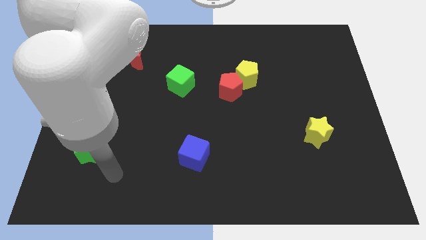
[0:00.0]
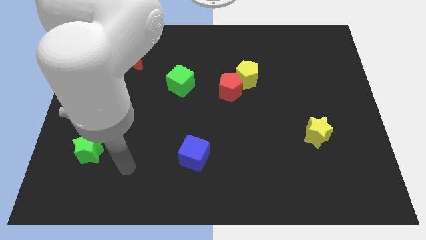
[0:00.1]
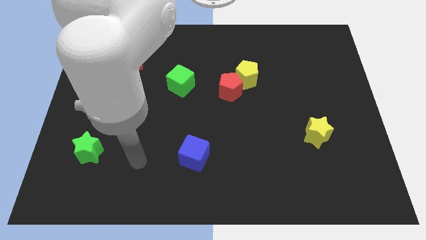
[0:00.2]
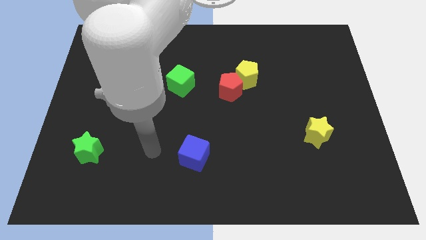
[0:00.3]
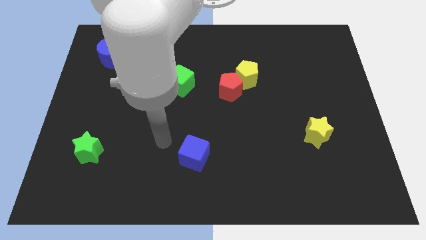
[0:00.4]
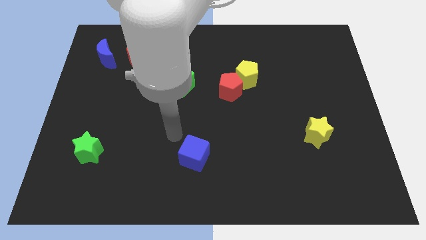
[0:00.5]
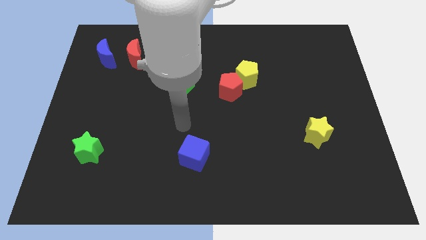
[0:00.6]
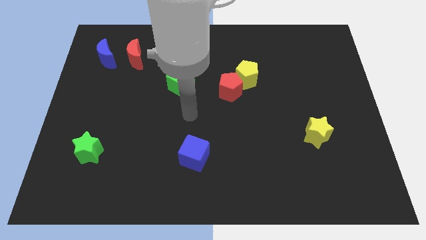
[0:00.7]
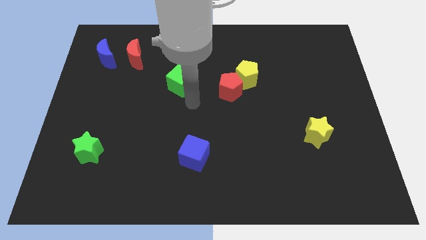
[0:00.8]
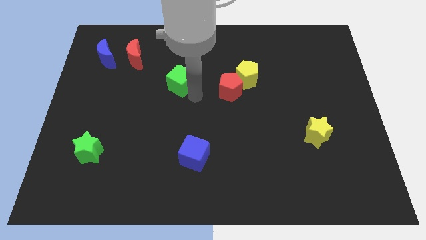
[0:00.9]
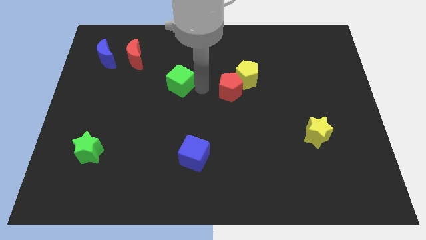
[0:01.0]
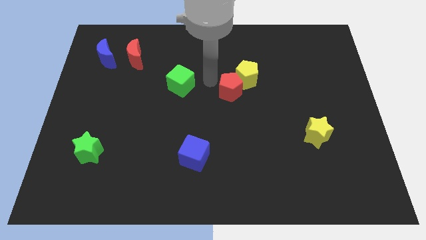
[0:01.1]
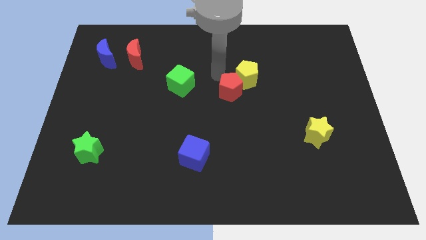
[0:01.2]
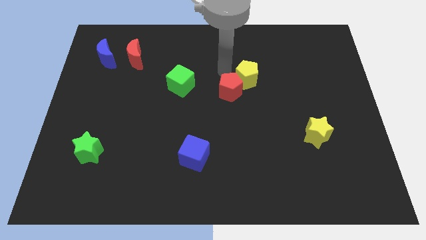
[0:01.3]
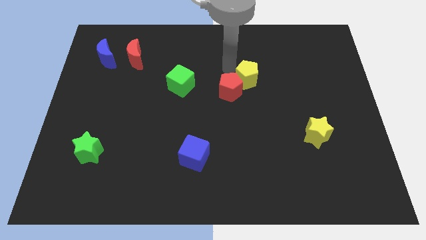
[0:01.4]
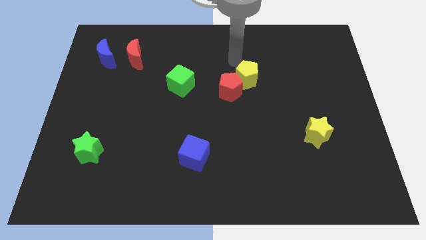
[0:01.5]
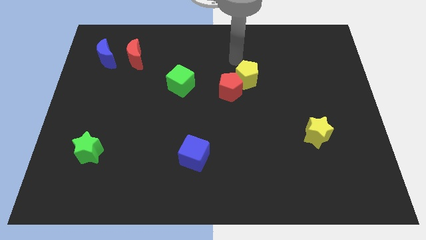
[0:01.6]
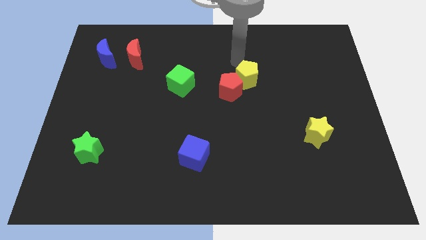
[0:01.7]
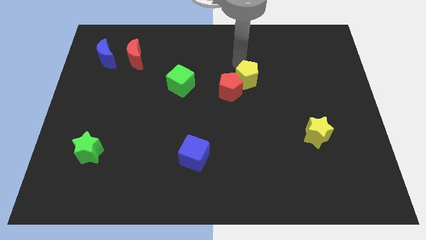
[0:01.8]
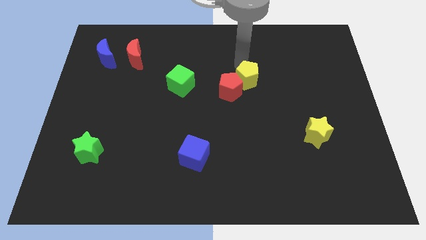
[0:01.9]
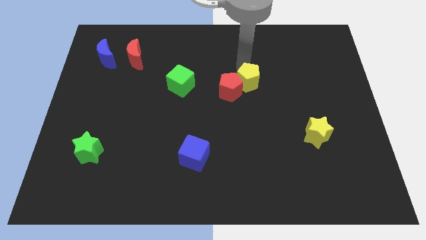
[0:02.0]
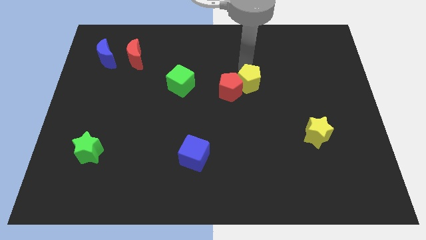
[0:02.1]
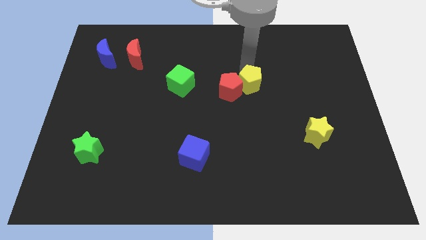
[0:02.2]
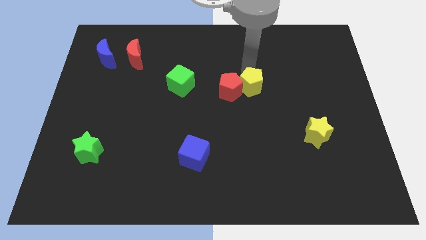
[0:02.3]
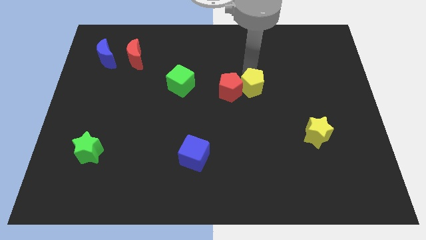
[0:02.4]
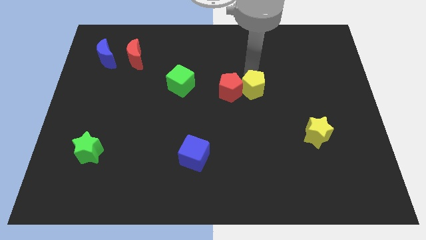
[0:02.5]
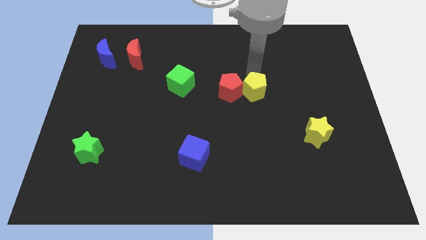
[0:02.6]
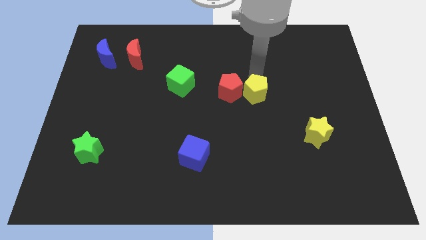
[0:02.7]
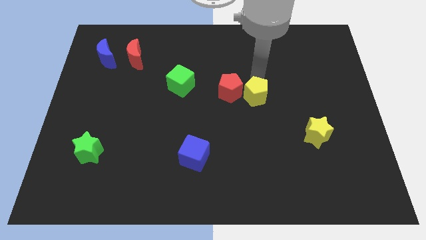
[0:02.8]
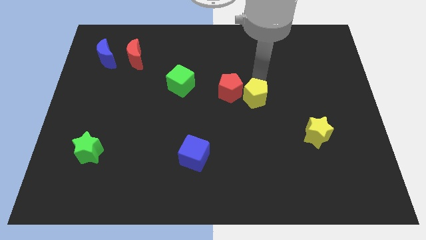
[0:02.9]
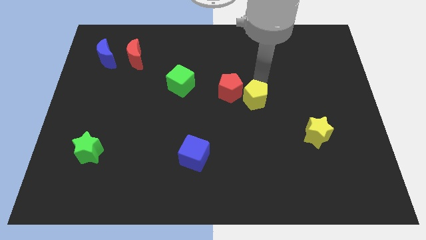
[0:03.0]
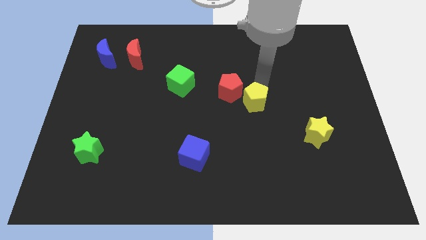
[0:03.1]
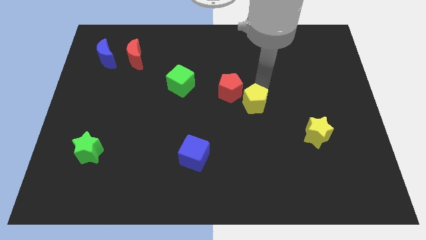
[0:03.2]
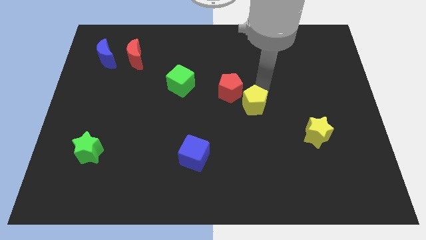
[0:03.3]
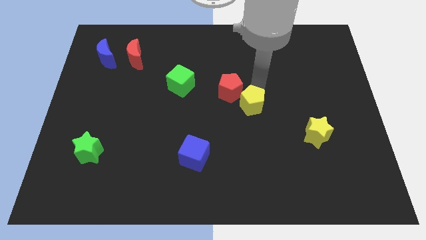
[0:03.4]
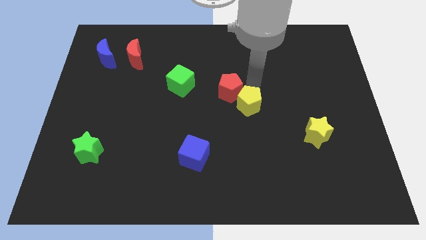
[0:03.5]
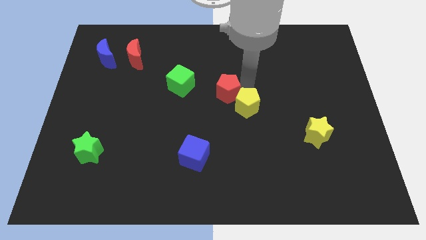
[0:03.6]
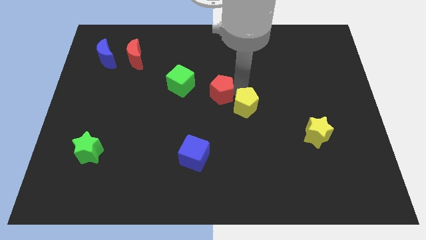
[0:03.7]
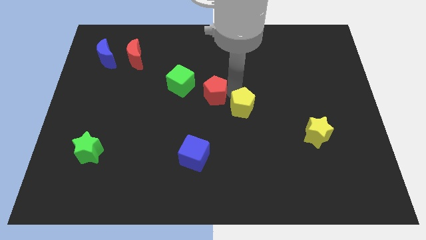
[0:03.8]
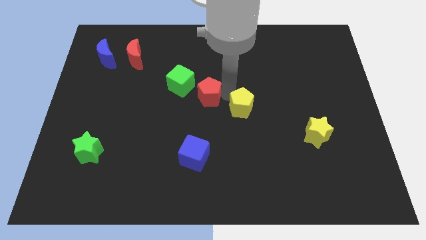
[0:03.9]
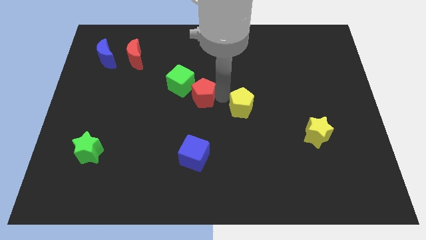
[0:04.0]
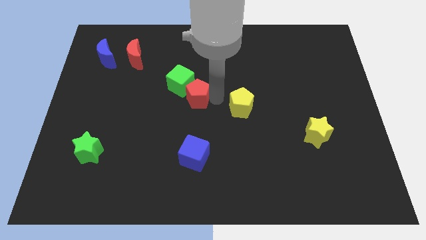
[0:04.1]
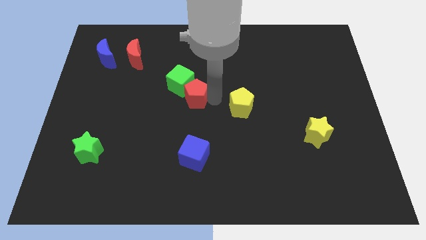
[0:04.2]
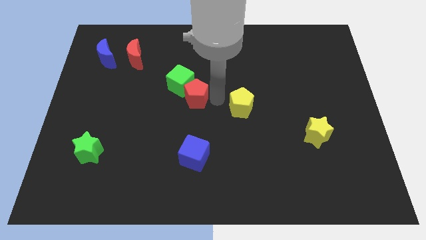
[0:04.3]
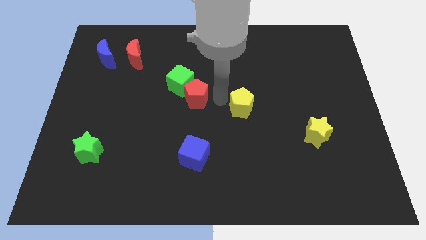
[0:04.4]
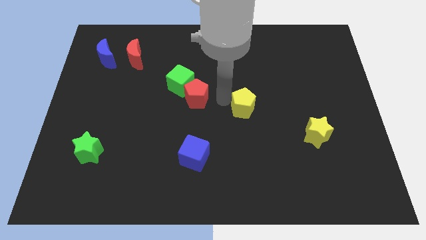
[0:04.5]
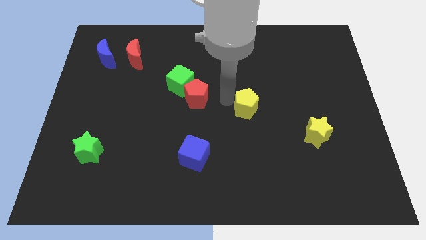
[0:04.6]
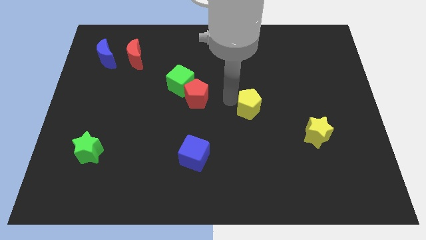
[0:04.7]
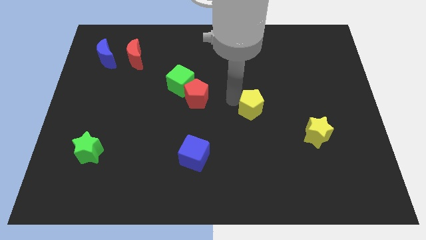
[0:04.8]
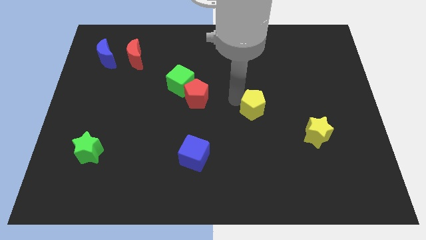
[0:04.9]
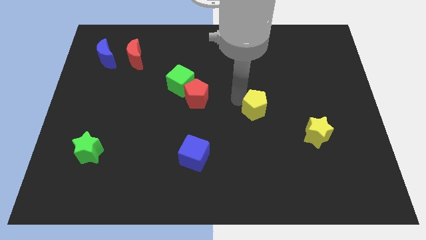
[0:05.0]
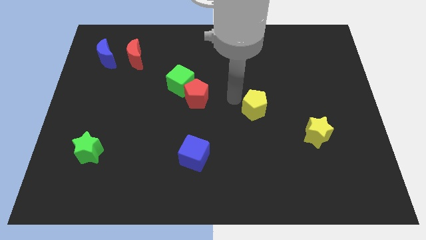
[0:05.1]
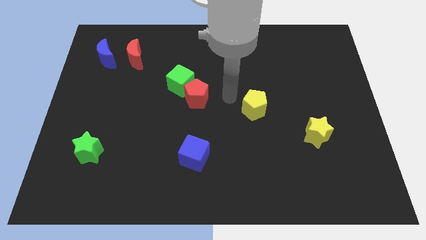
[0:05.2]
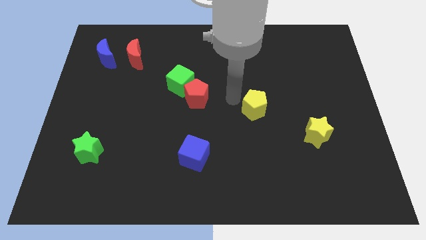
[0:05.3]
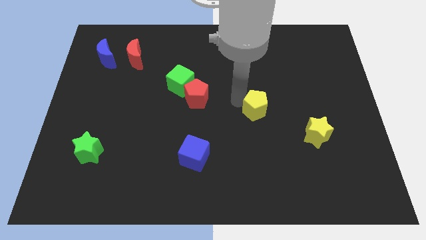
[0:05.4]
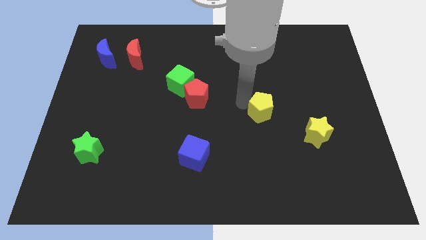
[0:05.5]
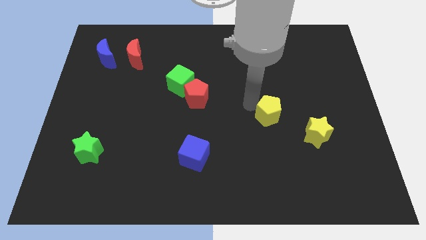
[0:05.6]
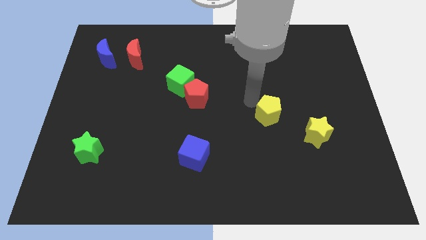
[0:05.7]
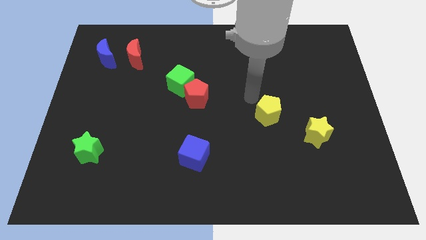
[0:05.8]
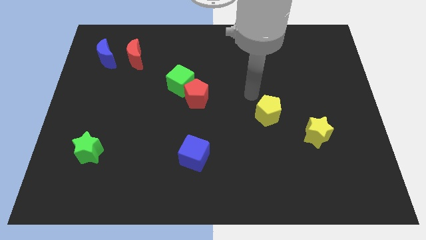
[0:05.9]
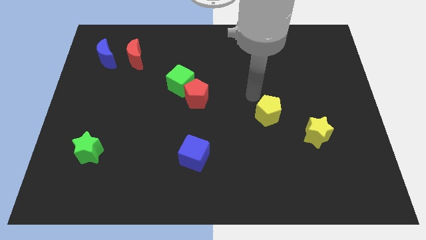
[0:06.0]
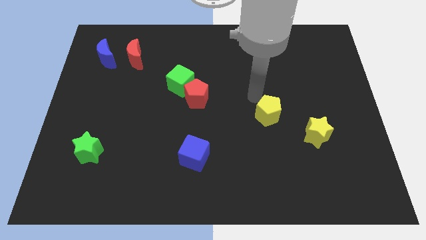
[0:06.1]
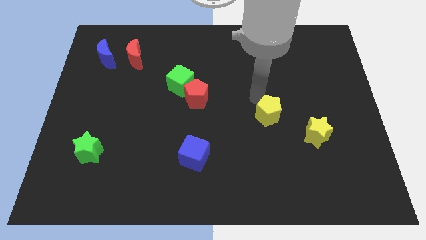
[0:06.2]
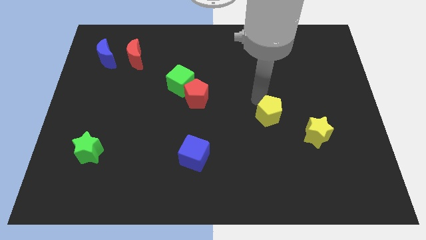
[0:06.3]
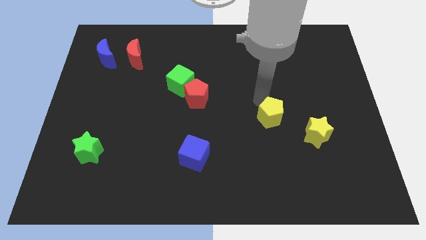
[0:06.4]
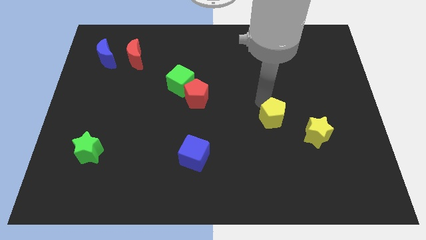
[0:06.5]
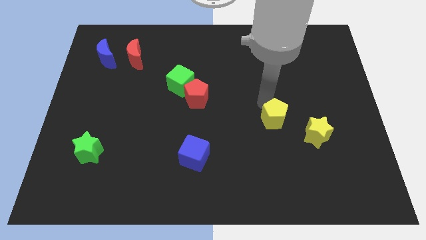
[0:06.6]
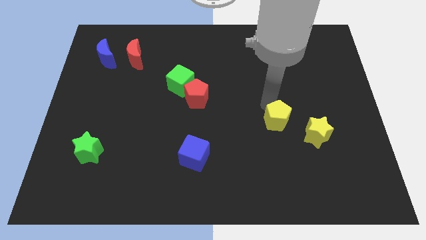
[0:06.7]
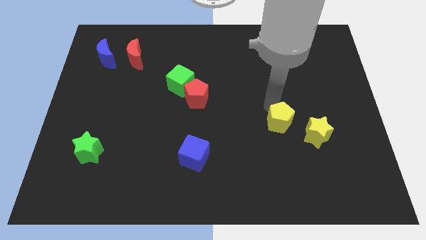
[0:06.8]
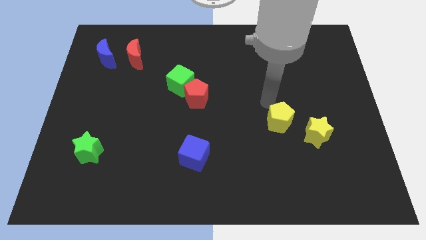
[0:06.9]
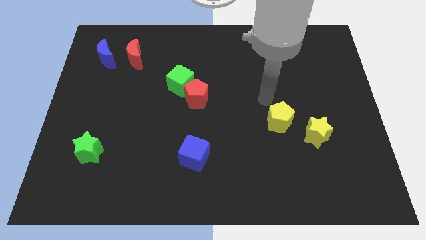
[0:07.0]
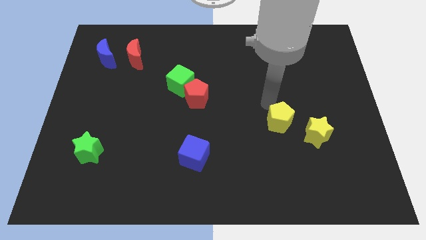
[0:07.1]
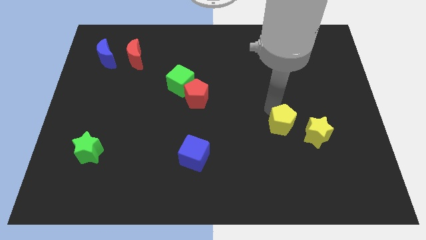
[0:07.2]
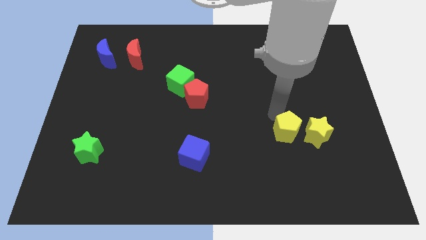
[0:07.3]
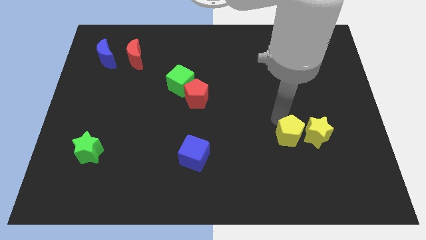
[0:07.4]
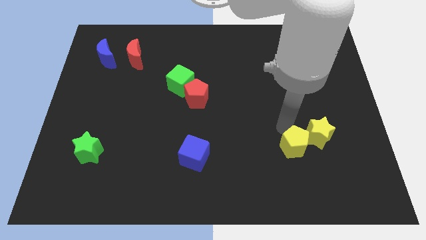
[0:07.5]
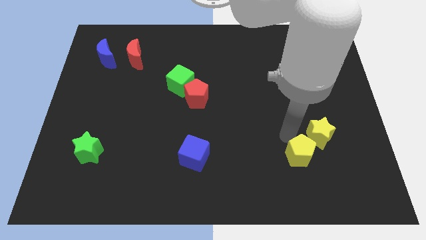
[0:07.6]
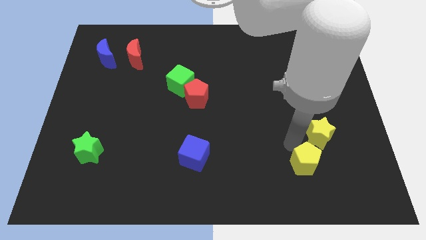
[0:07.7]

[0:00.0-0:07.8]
push the yellow pentagon below the yellow star

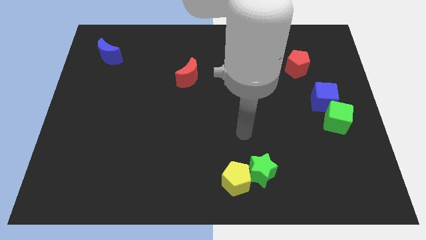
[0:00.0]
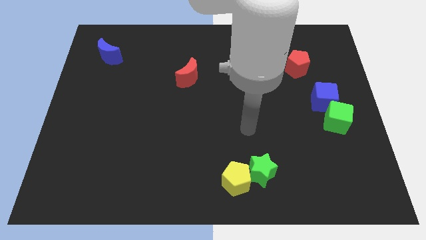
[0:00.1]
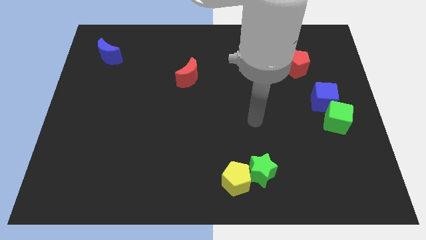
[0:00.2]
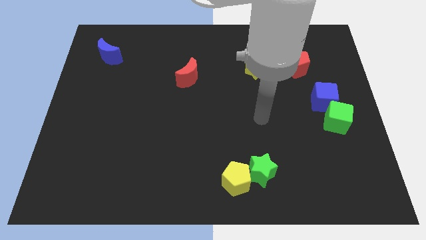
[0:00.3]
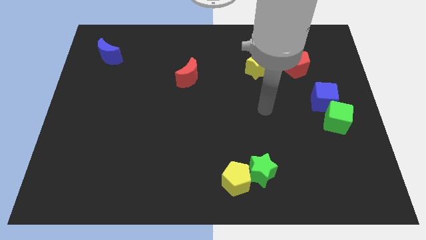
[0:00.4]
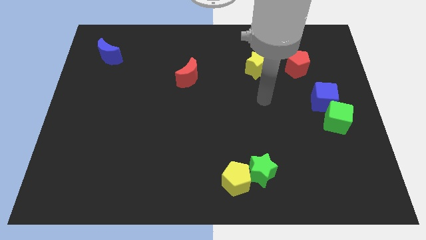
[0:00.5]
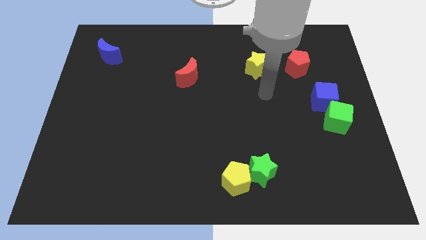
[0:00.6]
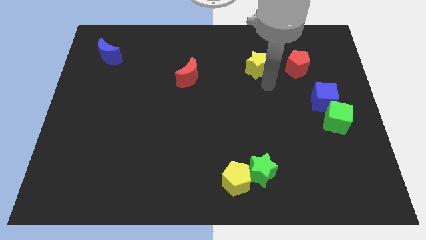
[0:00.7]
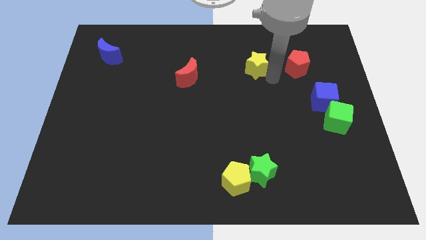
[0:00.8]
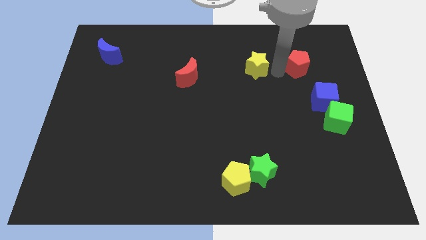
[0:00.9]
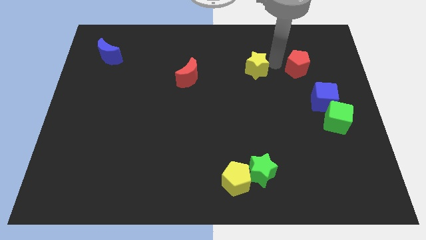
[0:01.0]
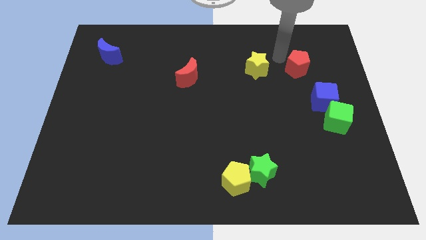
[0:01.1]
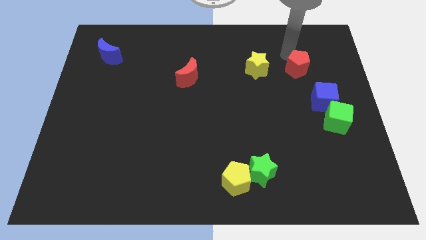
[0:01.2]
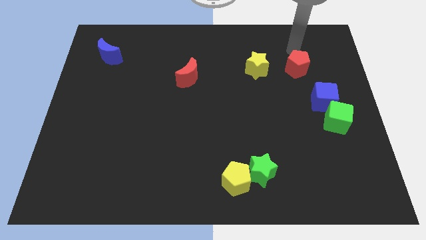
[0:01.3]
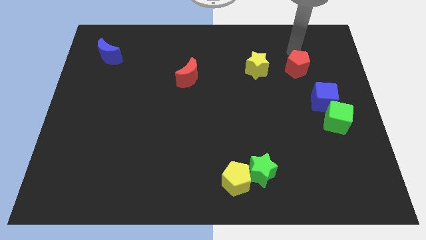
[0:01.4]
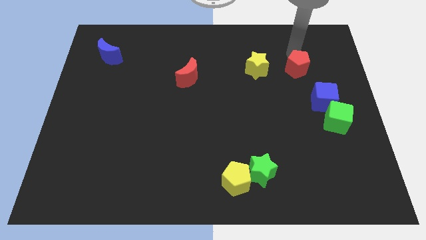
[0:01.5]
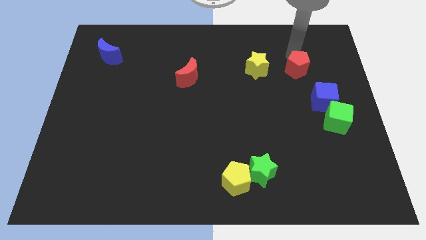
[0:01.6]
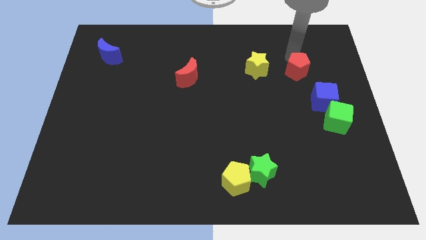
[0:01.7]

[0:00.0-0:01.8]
move the red pentagon to the top left of the blue cube
